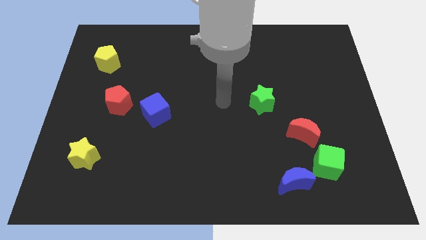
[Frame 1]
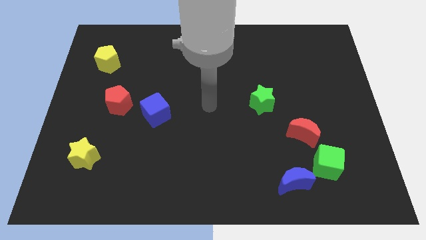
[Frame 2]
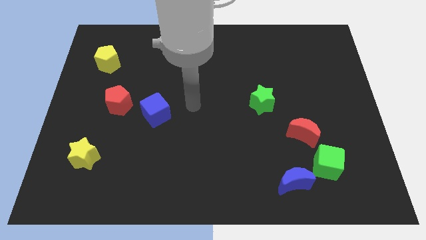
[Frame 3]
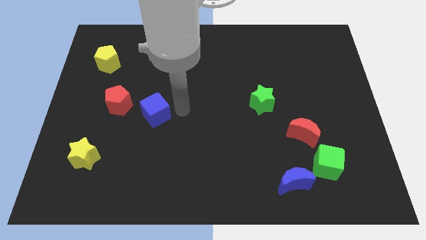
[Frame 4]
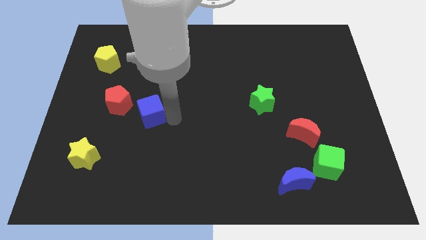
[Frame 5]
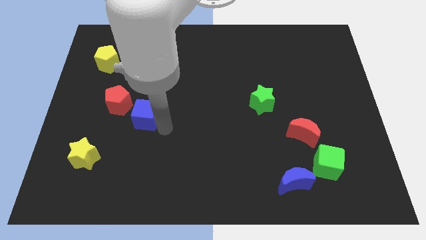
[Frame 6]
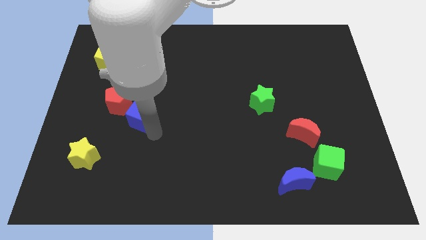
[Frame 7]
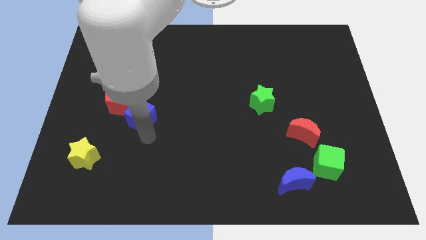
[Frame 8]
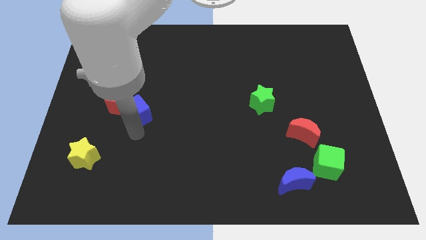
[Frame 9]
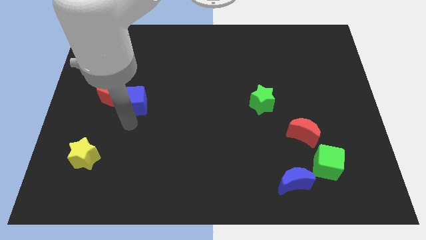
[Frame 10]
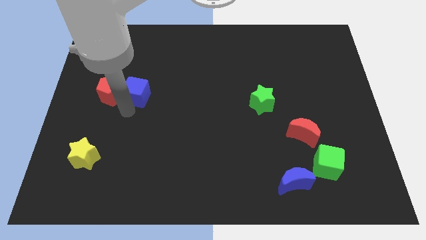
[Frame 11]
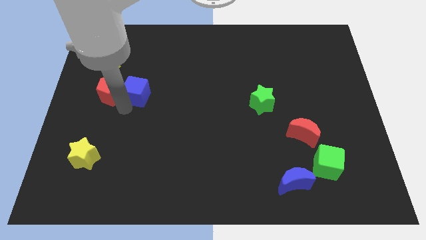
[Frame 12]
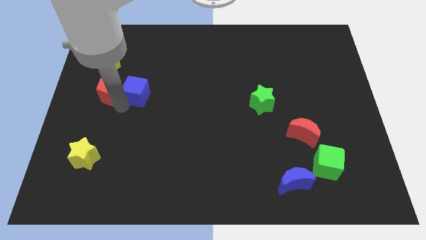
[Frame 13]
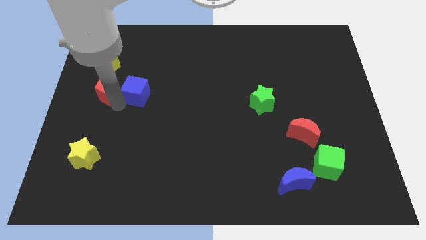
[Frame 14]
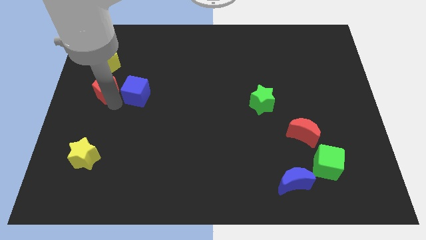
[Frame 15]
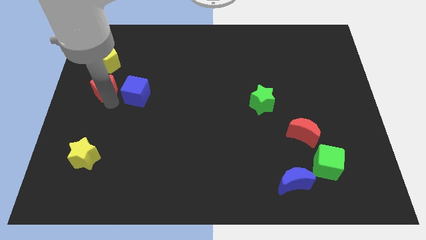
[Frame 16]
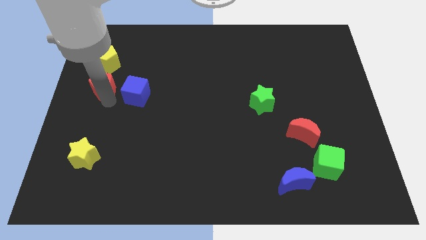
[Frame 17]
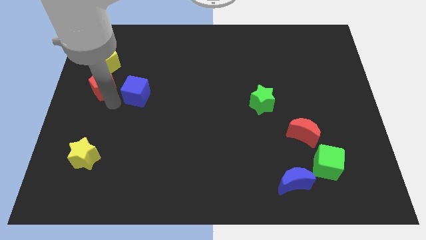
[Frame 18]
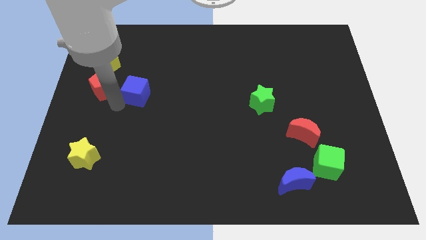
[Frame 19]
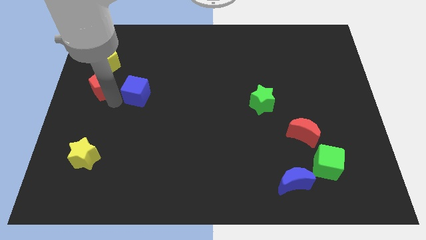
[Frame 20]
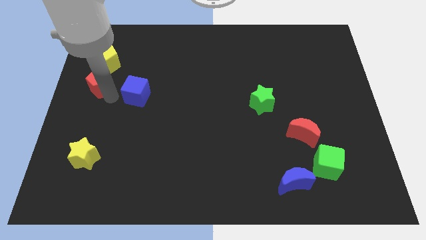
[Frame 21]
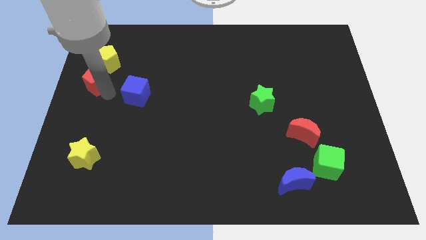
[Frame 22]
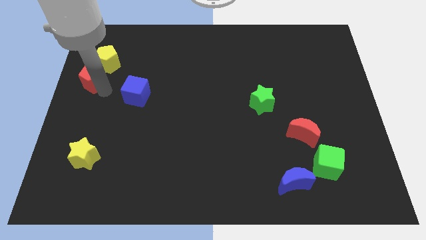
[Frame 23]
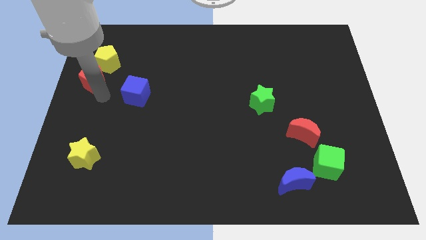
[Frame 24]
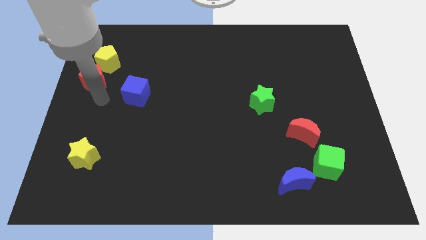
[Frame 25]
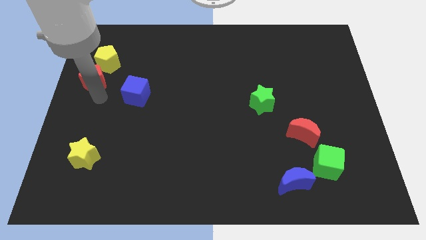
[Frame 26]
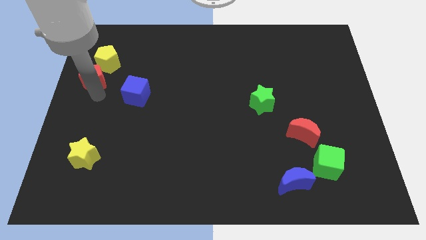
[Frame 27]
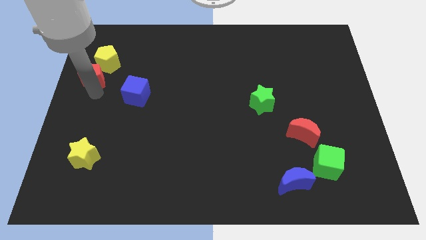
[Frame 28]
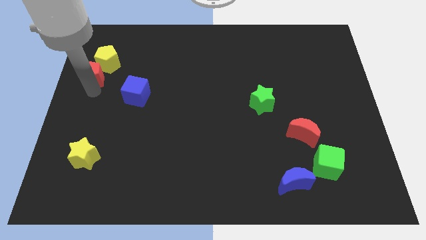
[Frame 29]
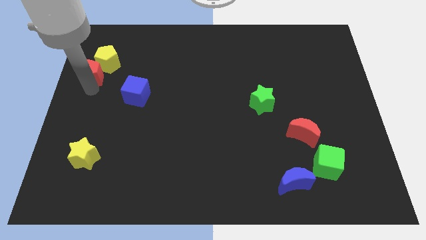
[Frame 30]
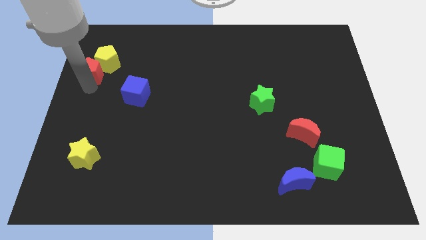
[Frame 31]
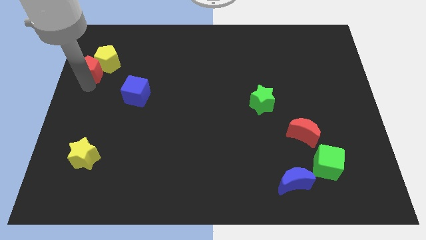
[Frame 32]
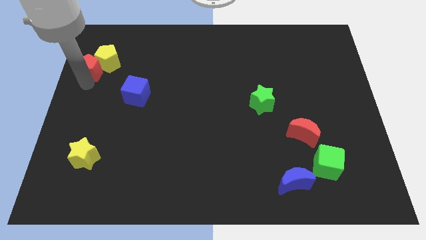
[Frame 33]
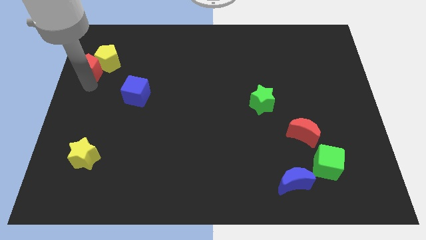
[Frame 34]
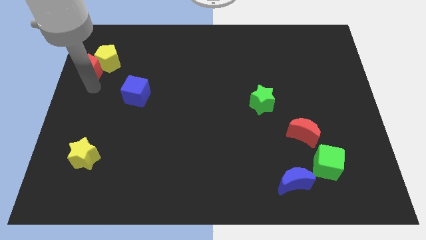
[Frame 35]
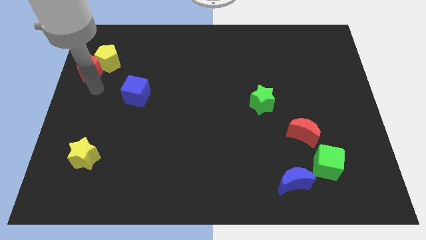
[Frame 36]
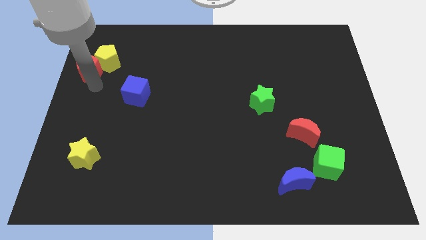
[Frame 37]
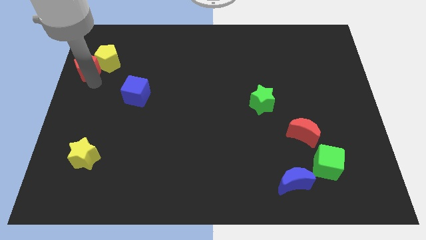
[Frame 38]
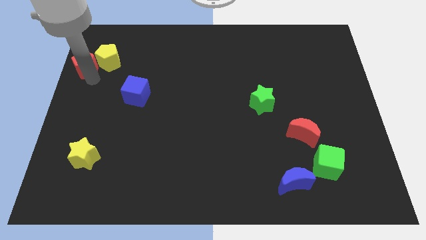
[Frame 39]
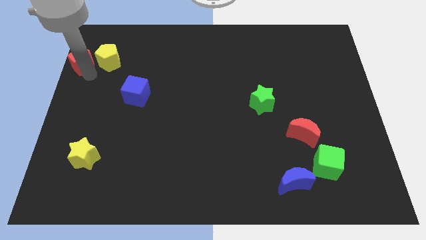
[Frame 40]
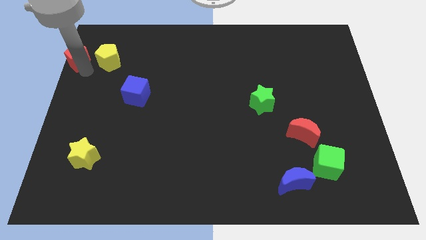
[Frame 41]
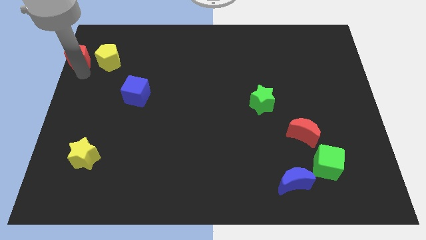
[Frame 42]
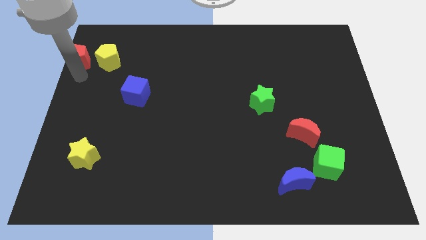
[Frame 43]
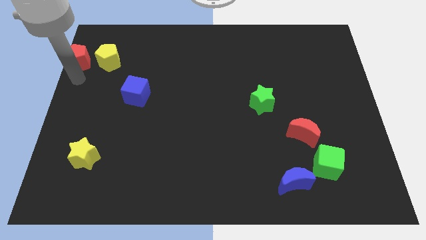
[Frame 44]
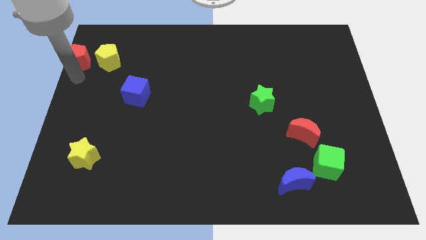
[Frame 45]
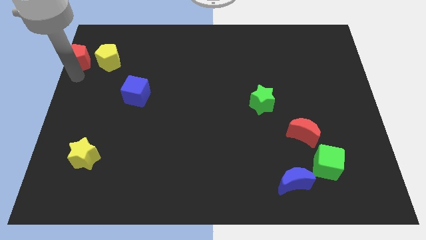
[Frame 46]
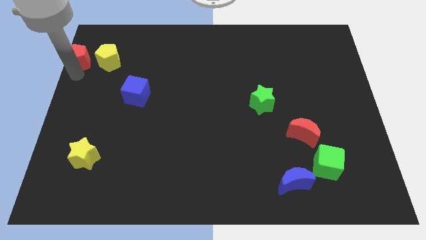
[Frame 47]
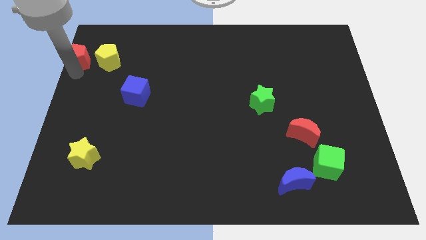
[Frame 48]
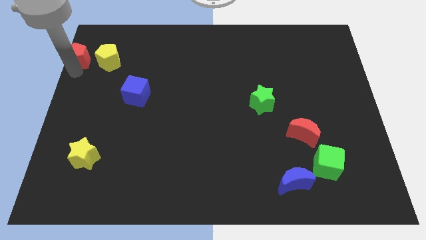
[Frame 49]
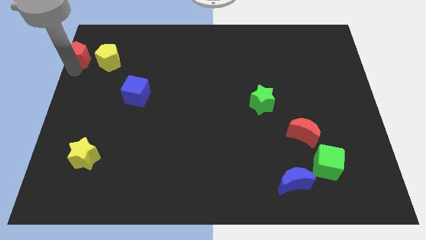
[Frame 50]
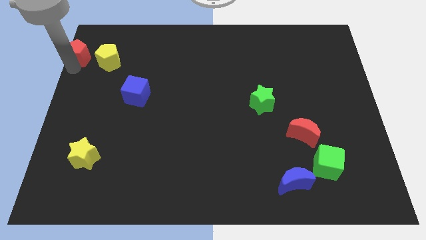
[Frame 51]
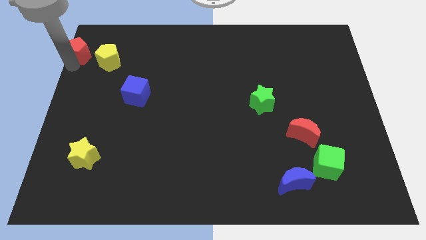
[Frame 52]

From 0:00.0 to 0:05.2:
put the red pentagon to the top left of the board

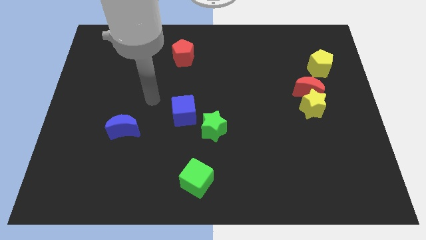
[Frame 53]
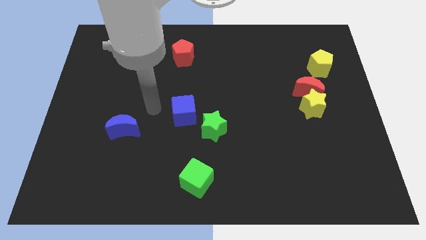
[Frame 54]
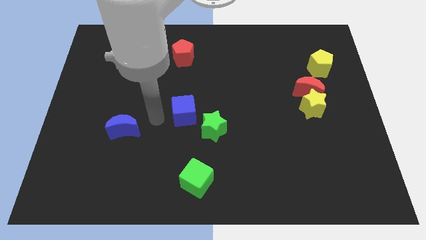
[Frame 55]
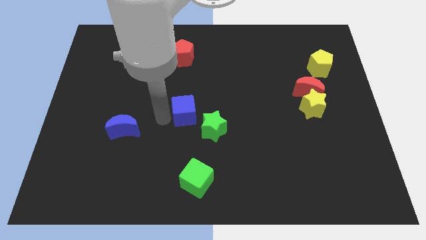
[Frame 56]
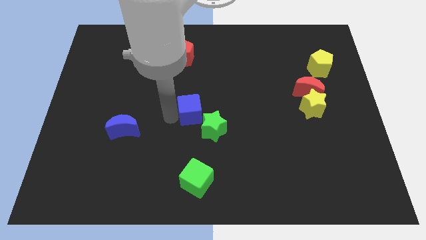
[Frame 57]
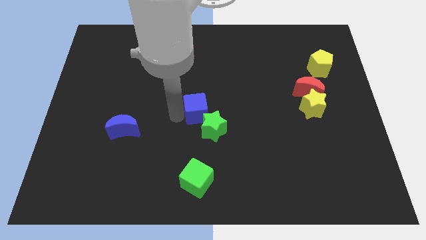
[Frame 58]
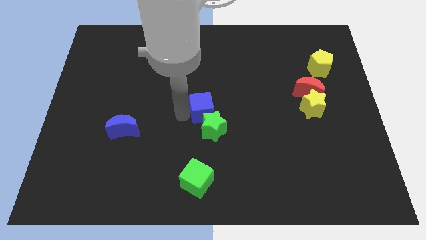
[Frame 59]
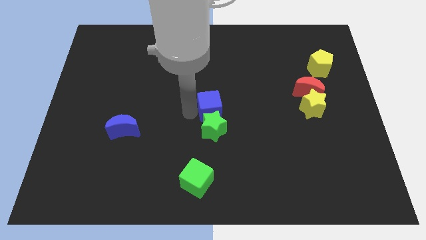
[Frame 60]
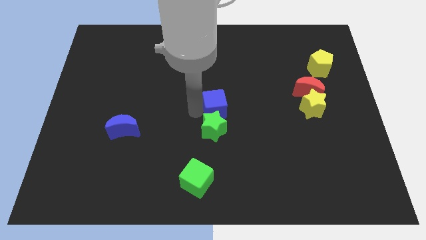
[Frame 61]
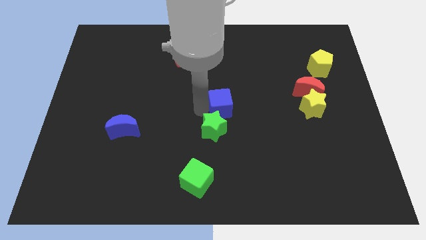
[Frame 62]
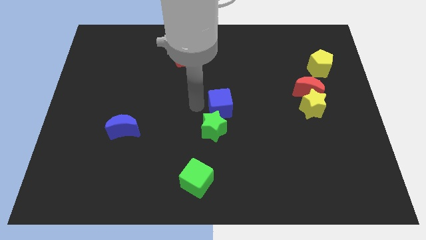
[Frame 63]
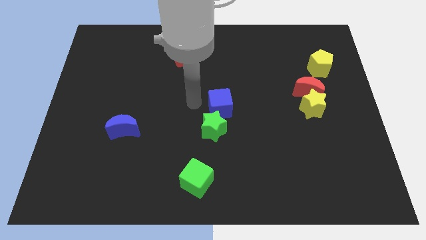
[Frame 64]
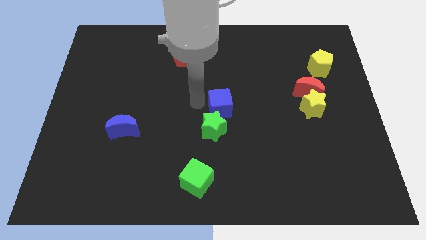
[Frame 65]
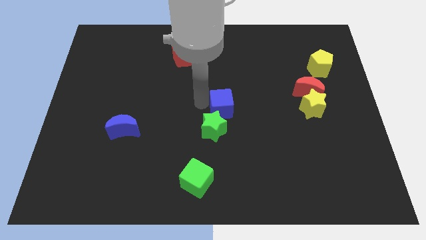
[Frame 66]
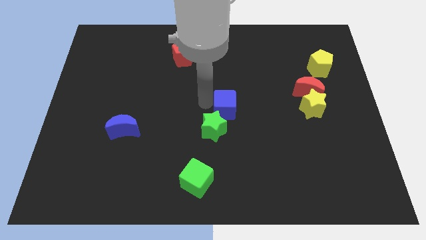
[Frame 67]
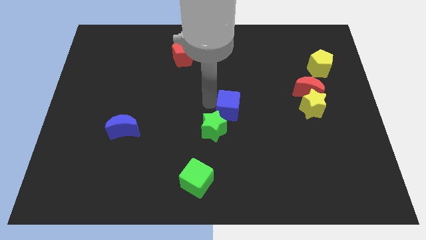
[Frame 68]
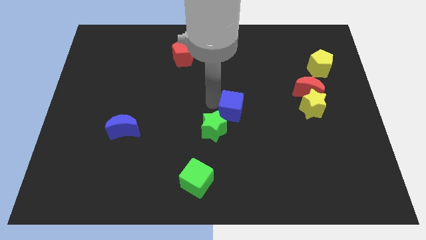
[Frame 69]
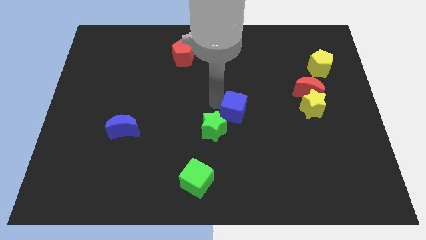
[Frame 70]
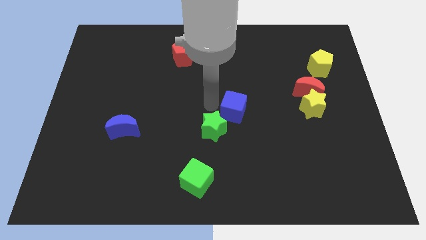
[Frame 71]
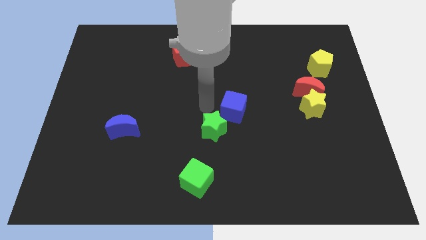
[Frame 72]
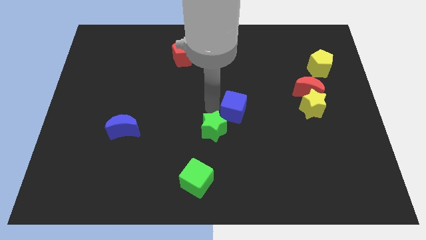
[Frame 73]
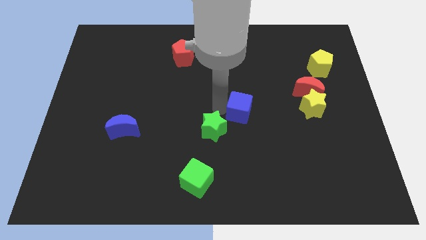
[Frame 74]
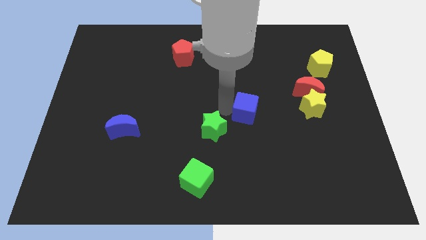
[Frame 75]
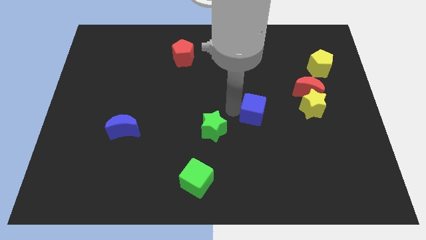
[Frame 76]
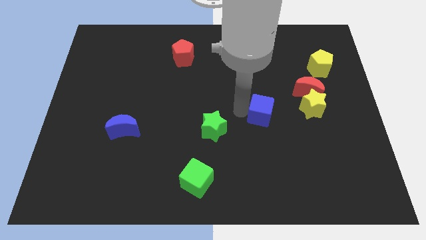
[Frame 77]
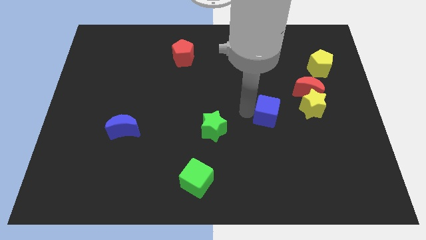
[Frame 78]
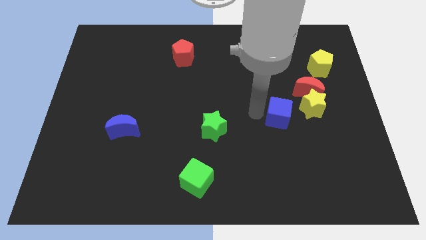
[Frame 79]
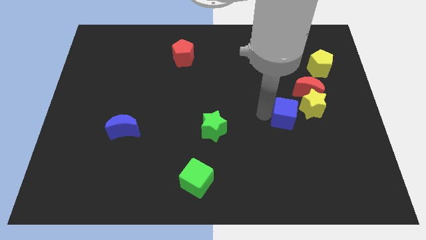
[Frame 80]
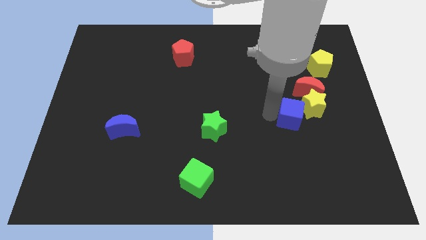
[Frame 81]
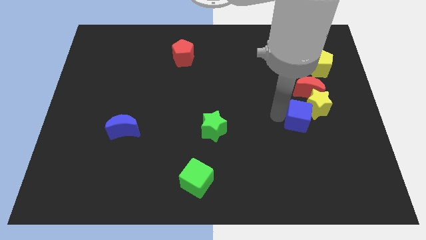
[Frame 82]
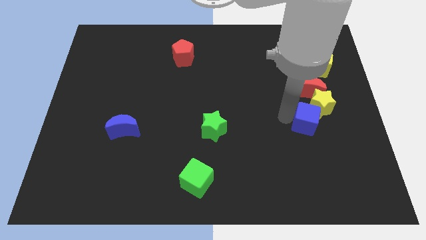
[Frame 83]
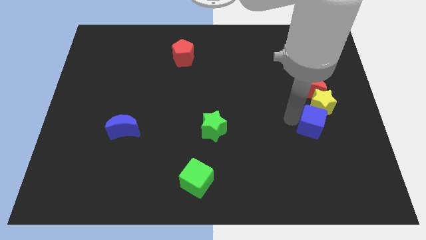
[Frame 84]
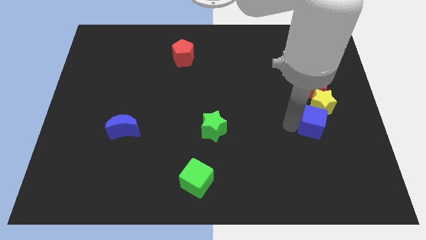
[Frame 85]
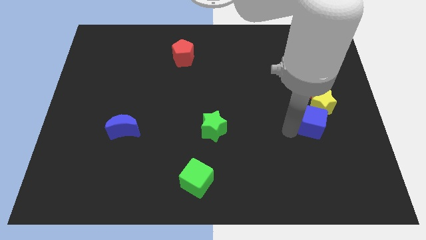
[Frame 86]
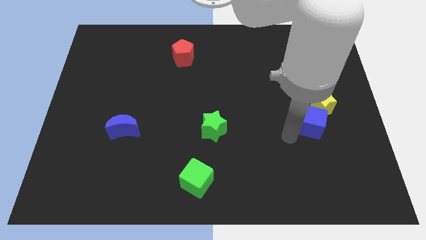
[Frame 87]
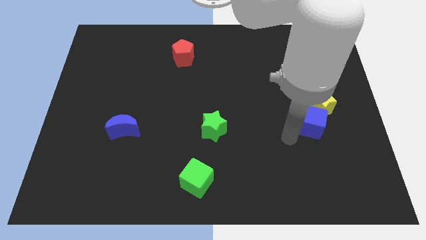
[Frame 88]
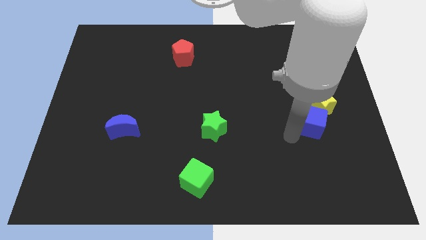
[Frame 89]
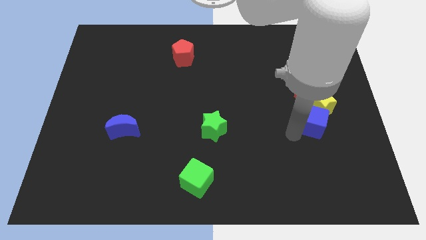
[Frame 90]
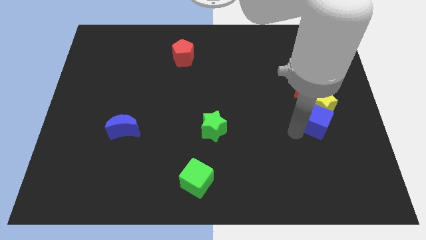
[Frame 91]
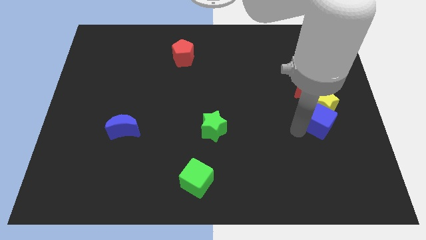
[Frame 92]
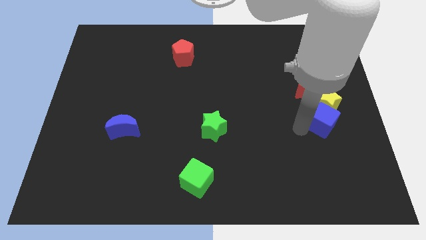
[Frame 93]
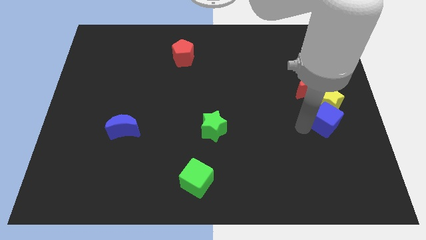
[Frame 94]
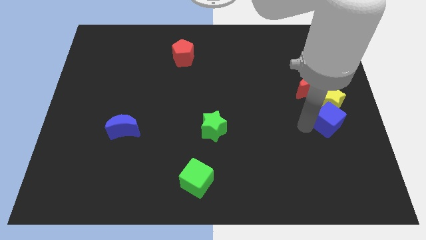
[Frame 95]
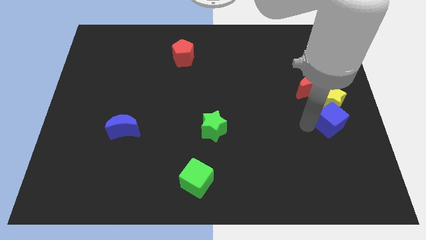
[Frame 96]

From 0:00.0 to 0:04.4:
move the blue cube to the right side
